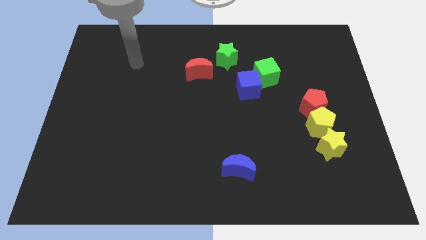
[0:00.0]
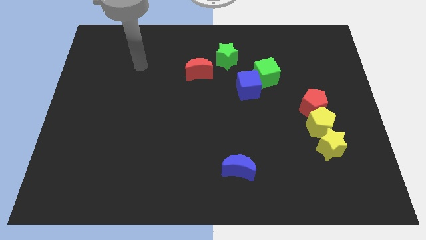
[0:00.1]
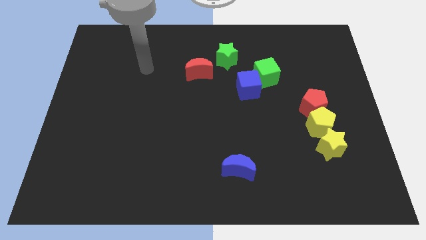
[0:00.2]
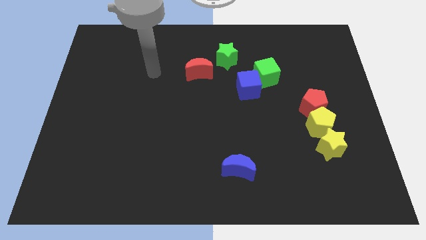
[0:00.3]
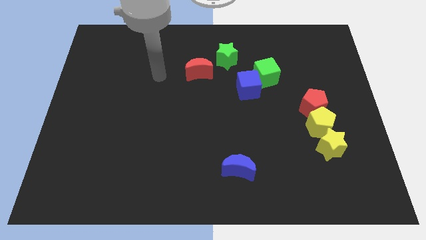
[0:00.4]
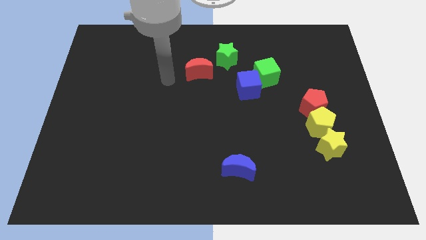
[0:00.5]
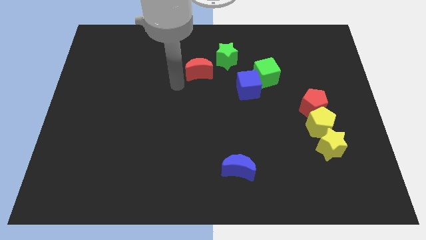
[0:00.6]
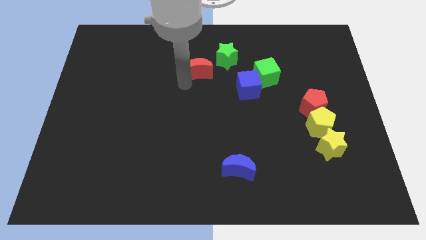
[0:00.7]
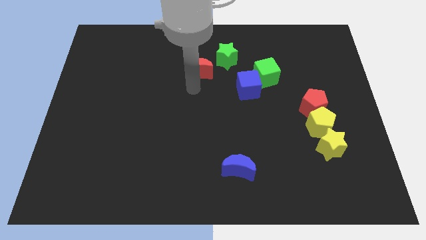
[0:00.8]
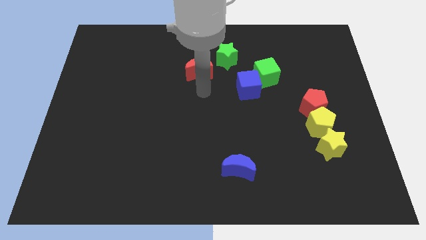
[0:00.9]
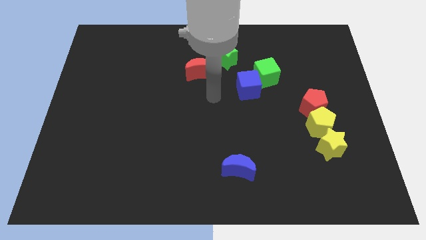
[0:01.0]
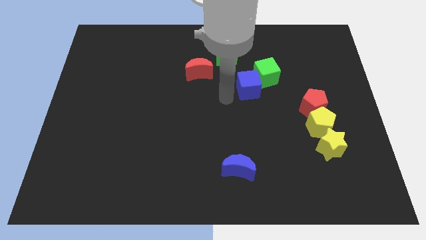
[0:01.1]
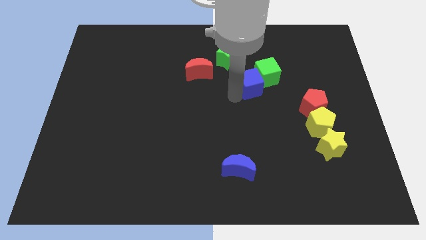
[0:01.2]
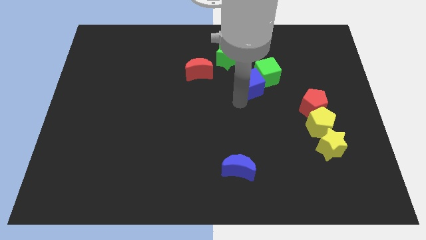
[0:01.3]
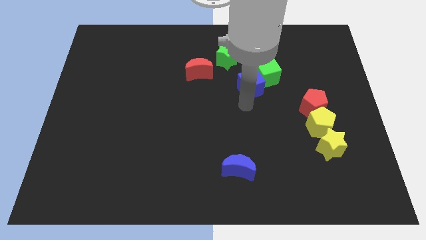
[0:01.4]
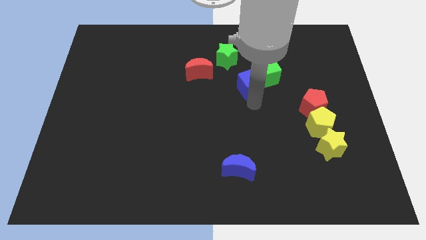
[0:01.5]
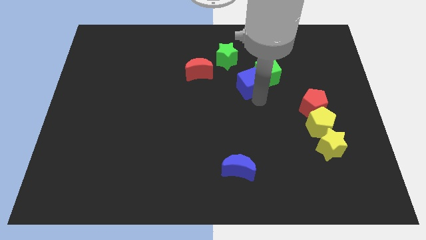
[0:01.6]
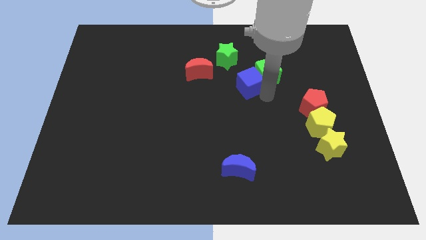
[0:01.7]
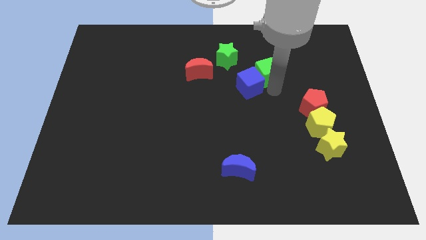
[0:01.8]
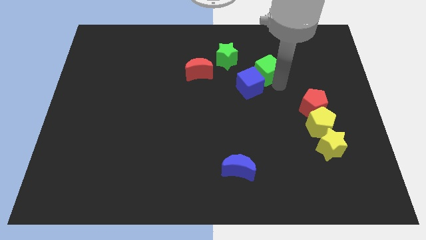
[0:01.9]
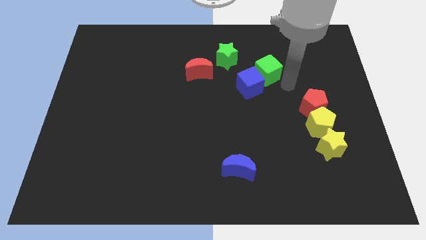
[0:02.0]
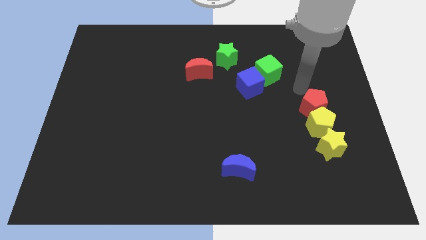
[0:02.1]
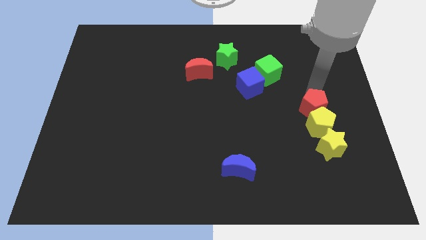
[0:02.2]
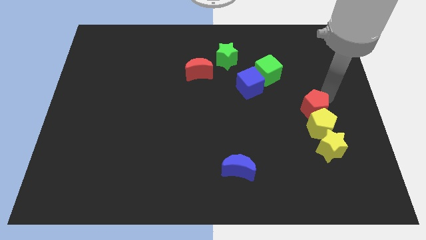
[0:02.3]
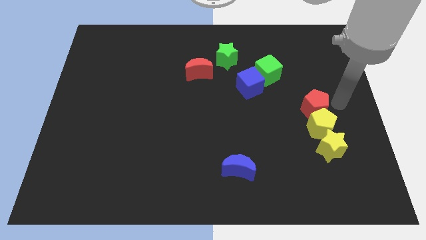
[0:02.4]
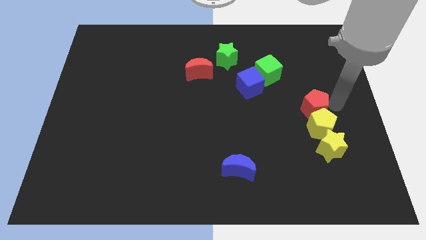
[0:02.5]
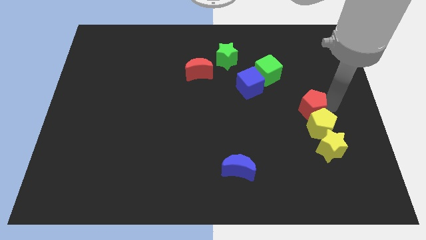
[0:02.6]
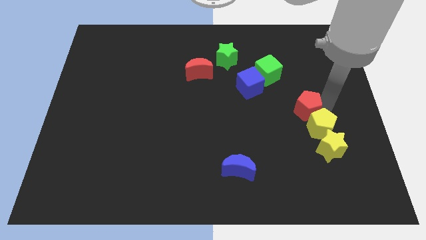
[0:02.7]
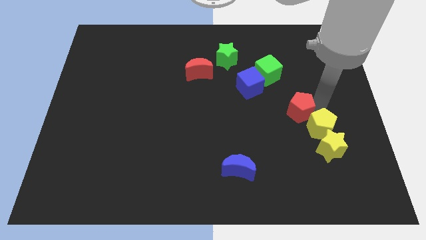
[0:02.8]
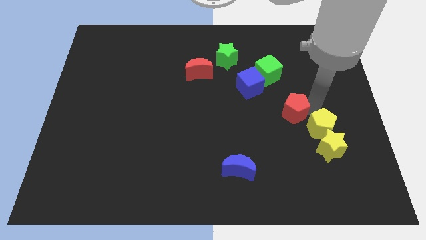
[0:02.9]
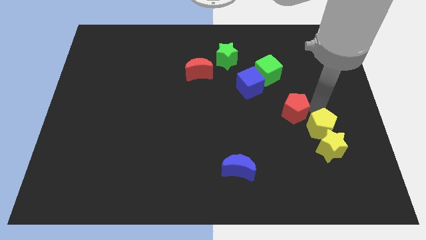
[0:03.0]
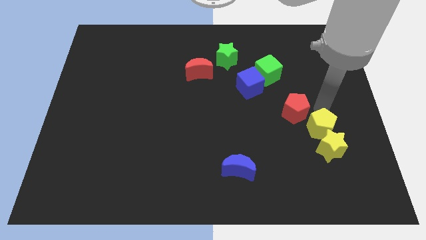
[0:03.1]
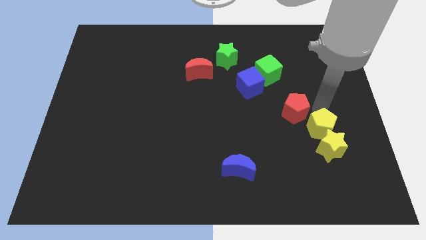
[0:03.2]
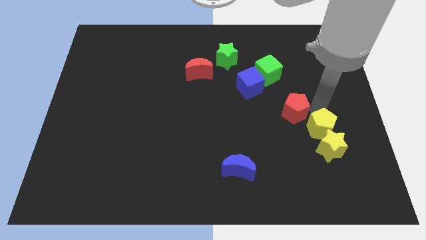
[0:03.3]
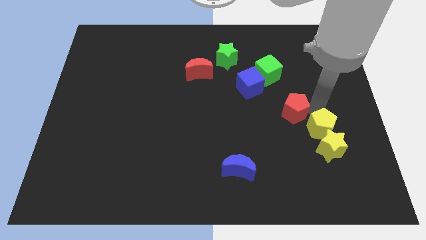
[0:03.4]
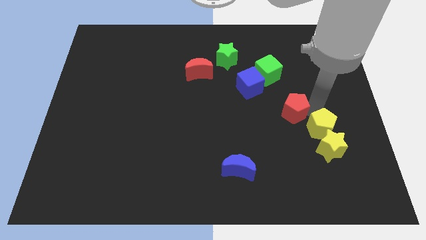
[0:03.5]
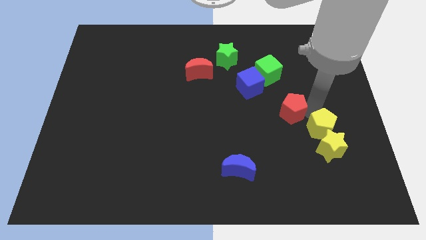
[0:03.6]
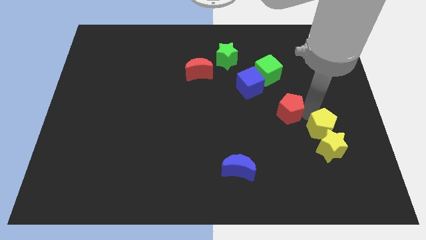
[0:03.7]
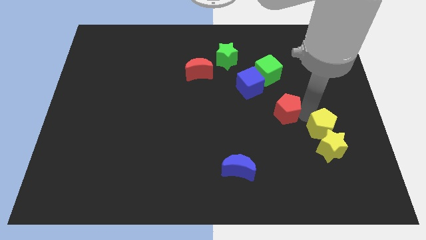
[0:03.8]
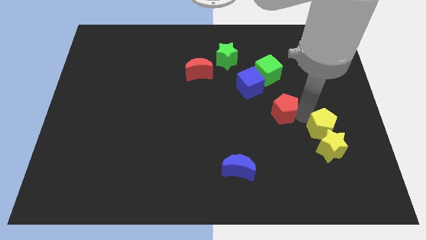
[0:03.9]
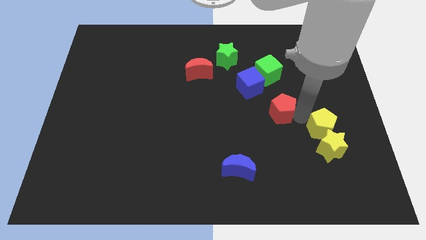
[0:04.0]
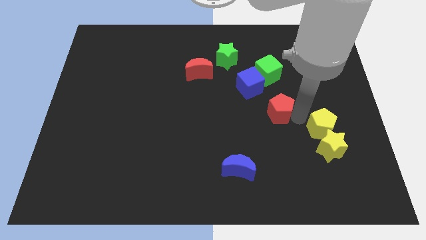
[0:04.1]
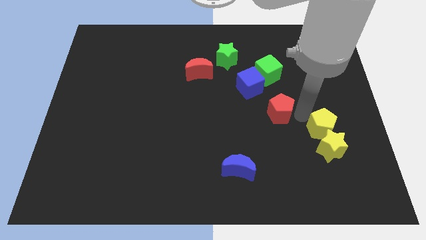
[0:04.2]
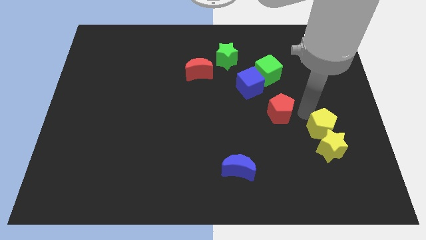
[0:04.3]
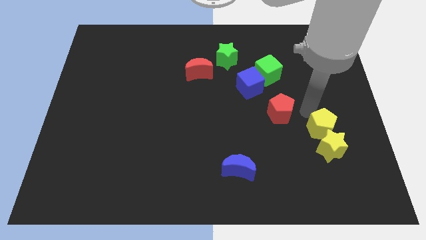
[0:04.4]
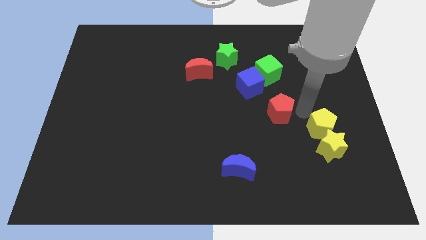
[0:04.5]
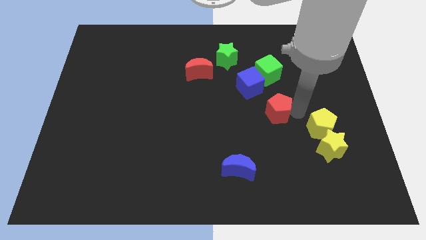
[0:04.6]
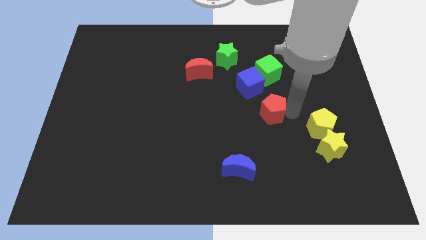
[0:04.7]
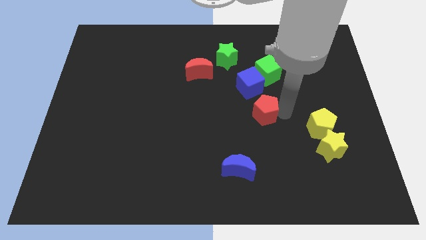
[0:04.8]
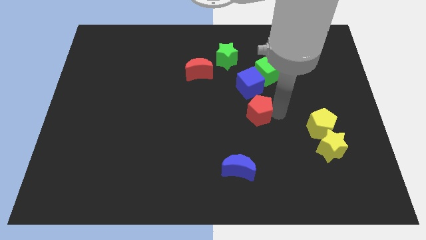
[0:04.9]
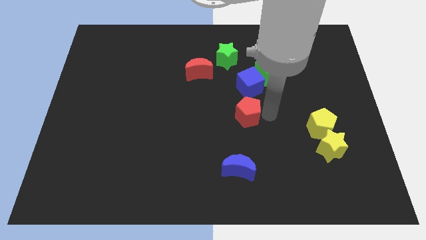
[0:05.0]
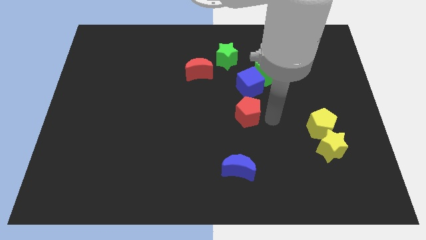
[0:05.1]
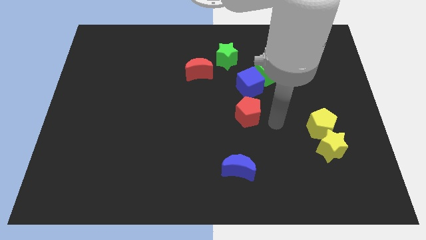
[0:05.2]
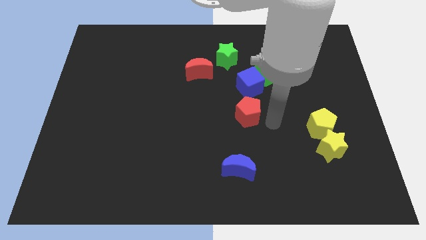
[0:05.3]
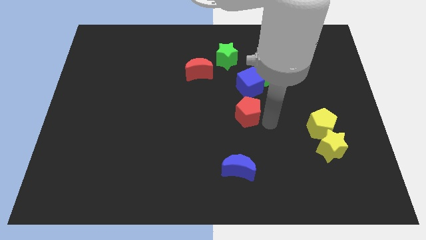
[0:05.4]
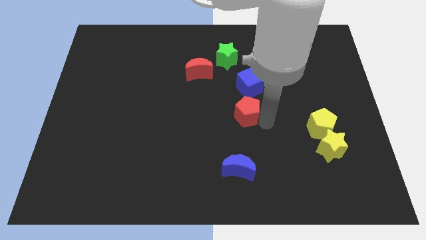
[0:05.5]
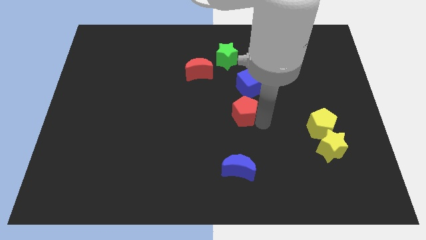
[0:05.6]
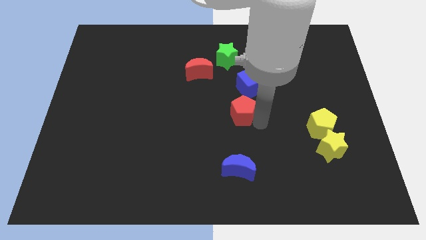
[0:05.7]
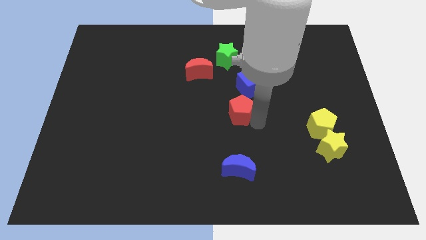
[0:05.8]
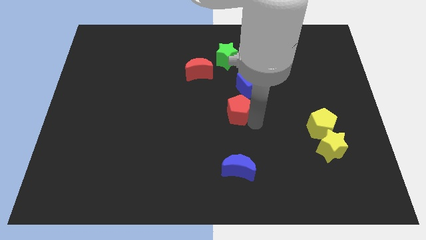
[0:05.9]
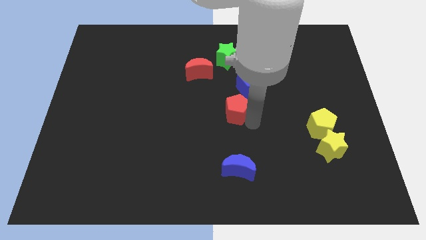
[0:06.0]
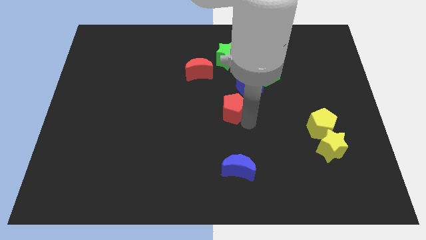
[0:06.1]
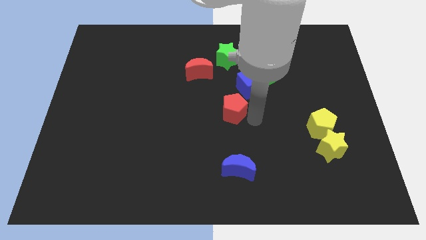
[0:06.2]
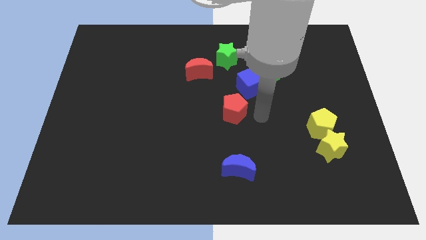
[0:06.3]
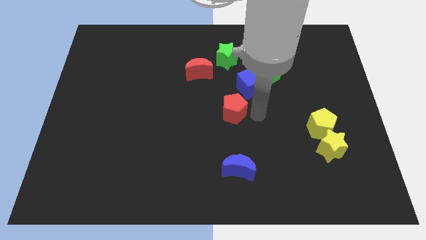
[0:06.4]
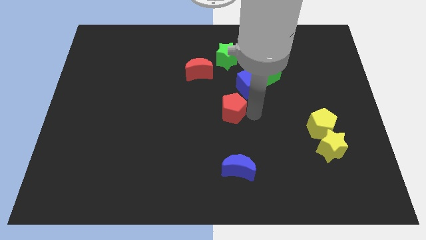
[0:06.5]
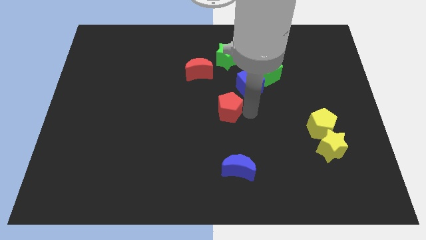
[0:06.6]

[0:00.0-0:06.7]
move the red pentagon to the left

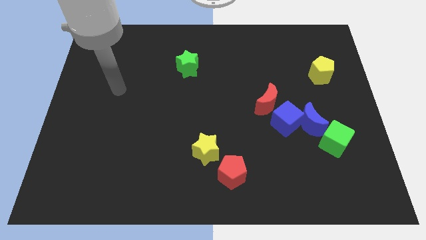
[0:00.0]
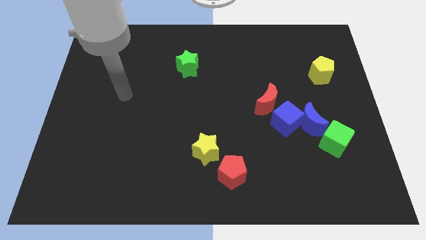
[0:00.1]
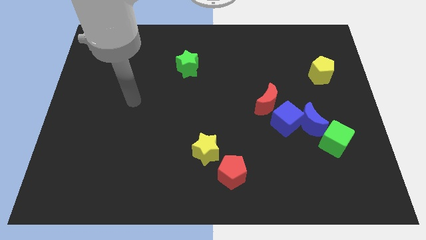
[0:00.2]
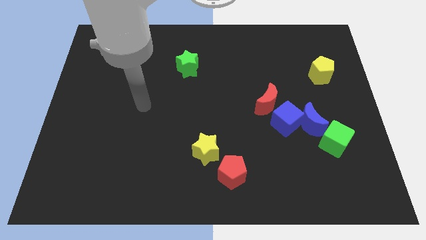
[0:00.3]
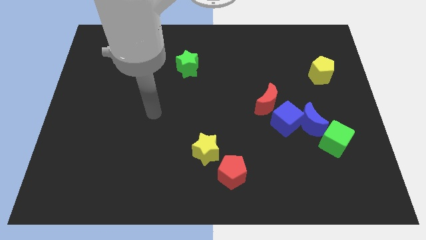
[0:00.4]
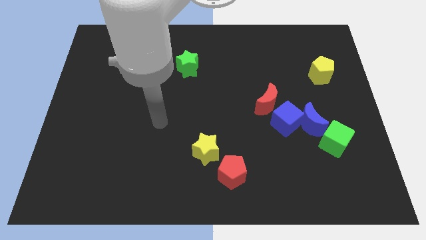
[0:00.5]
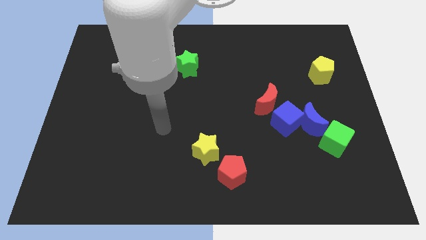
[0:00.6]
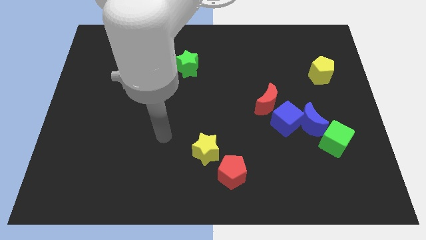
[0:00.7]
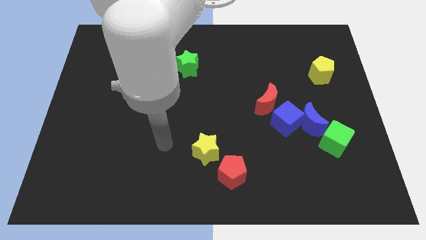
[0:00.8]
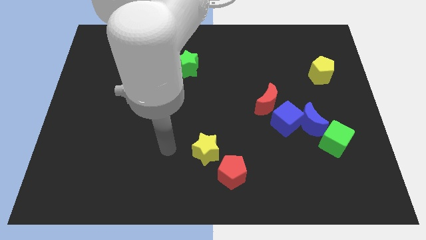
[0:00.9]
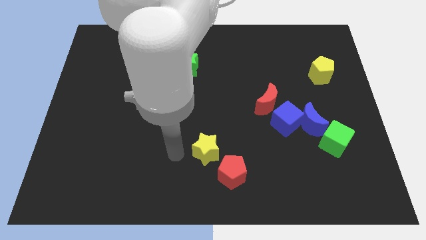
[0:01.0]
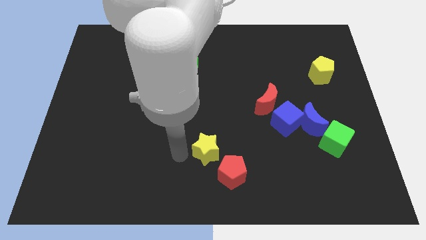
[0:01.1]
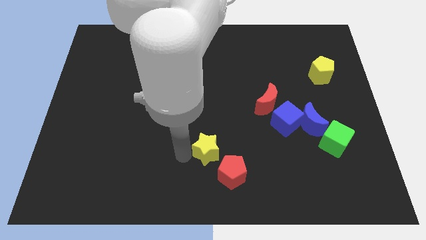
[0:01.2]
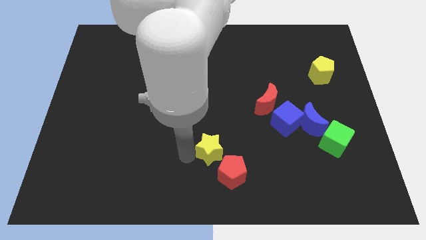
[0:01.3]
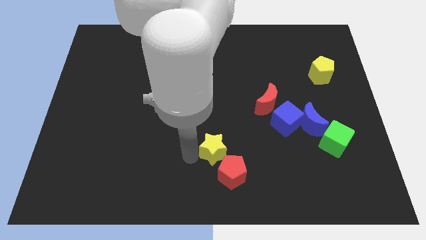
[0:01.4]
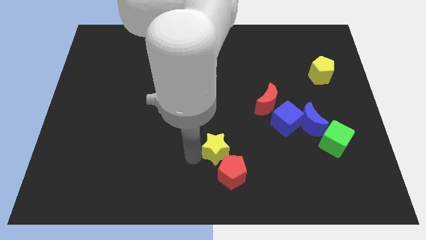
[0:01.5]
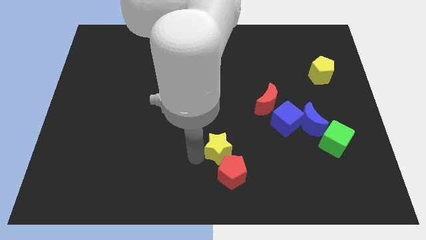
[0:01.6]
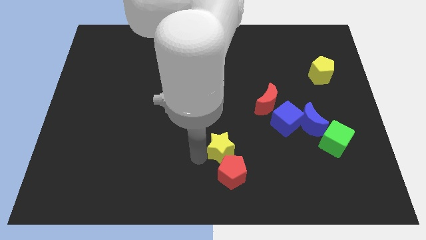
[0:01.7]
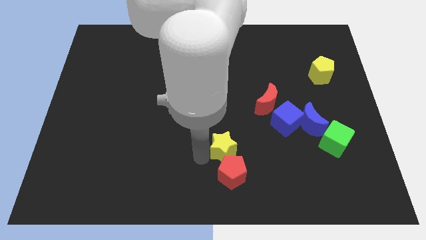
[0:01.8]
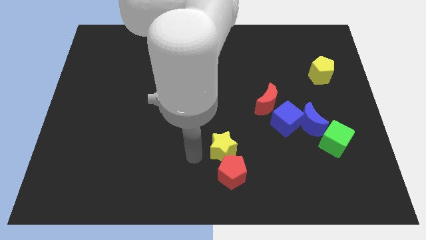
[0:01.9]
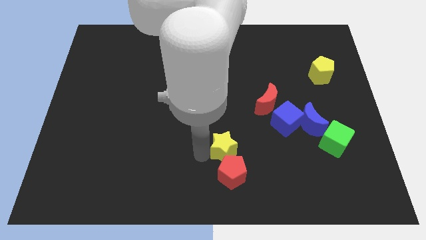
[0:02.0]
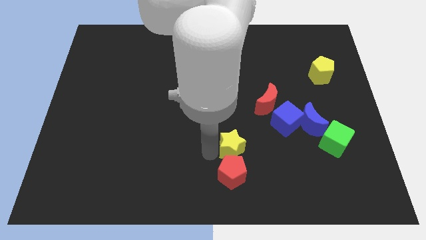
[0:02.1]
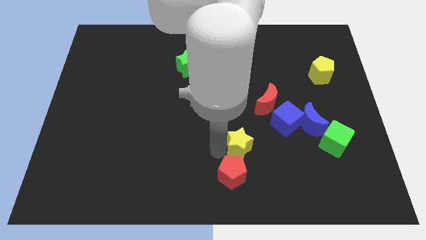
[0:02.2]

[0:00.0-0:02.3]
move the yellow star slightly to the right
